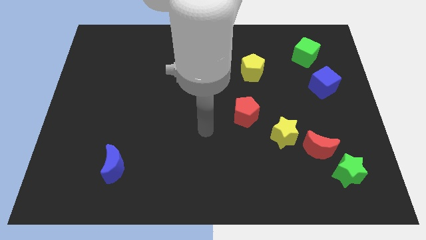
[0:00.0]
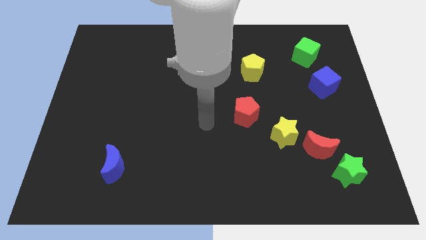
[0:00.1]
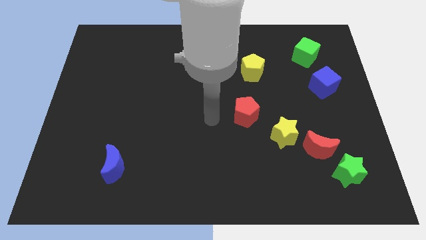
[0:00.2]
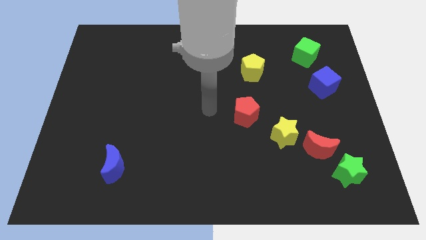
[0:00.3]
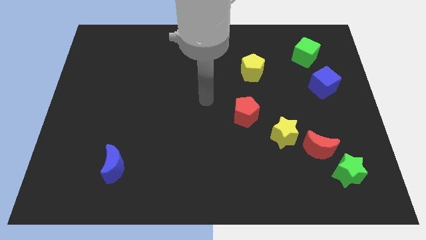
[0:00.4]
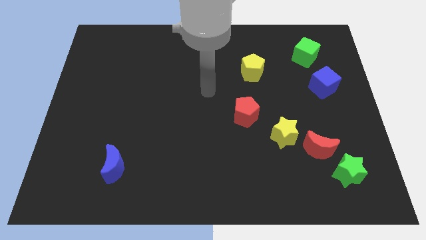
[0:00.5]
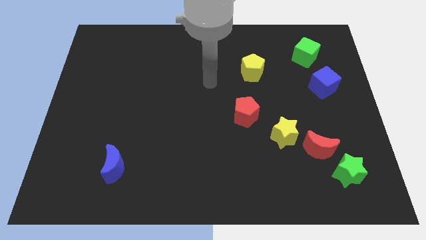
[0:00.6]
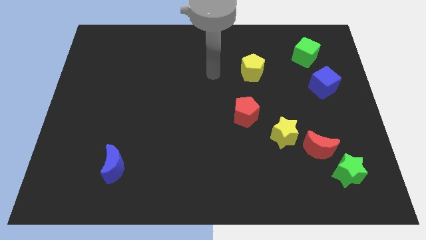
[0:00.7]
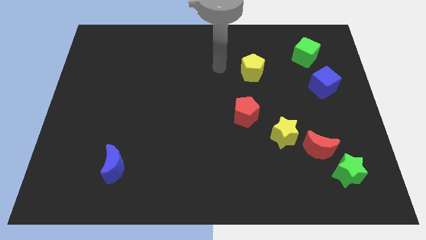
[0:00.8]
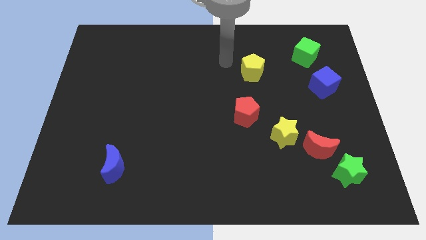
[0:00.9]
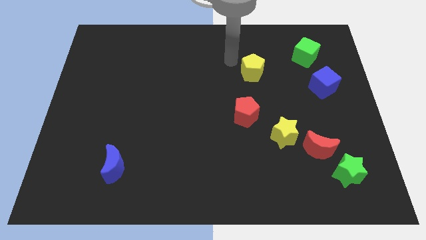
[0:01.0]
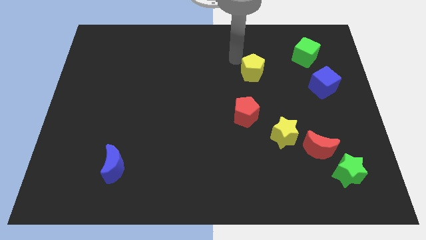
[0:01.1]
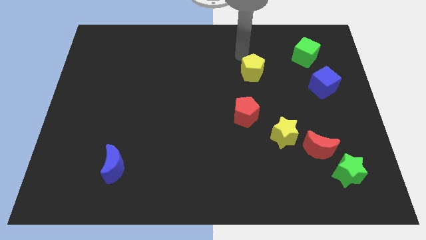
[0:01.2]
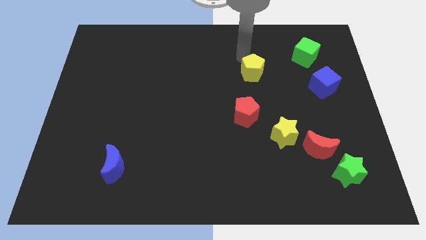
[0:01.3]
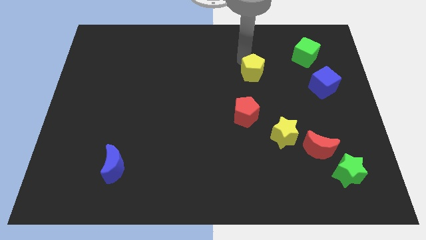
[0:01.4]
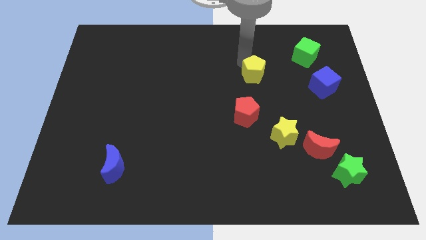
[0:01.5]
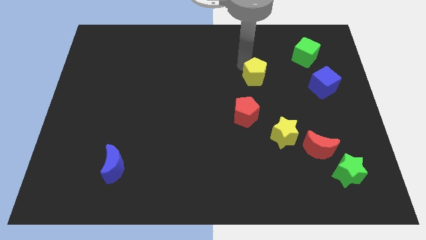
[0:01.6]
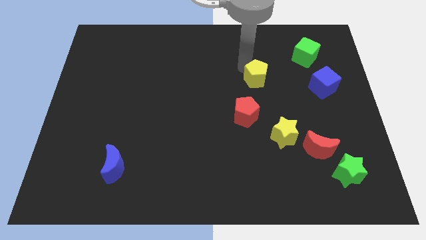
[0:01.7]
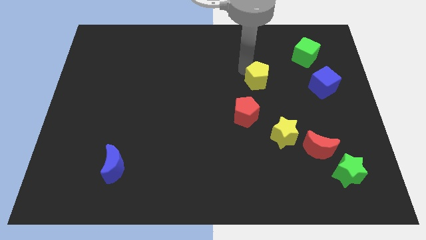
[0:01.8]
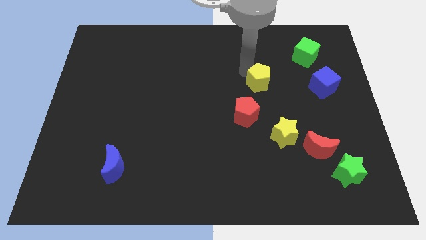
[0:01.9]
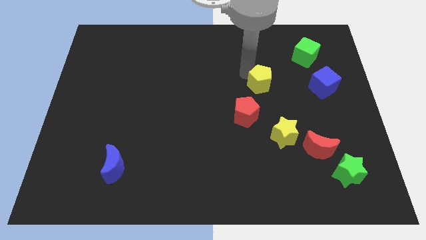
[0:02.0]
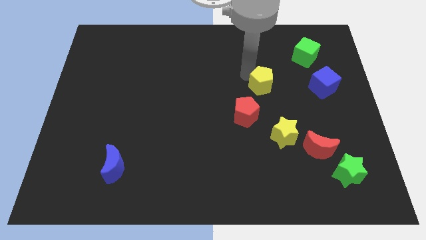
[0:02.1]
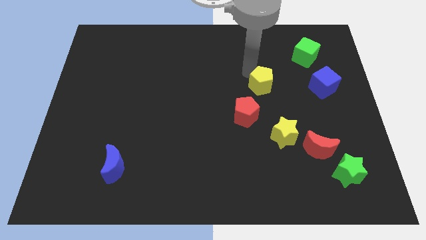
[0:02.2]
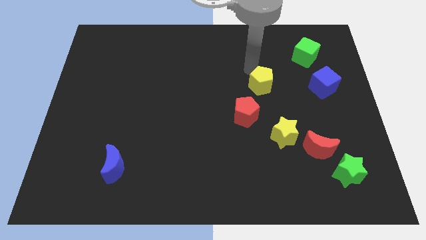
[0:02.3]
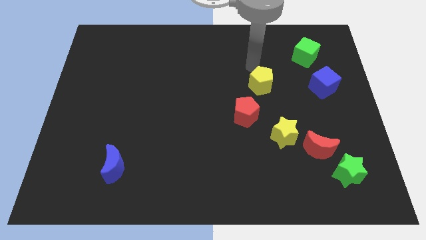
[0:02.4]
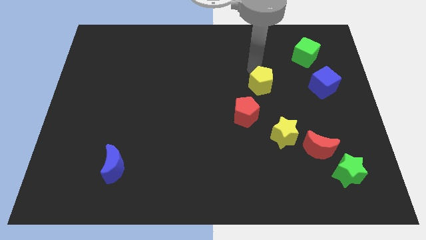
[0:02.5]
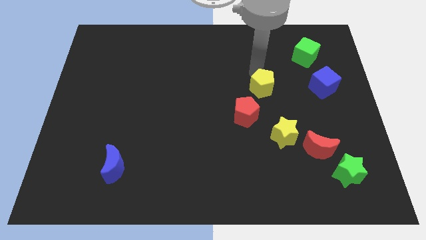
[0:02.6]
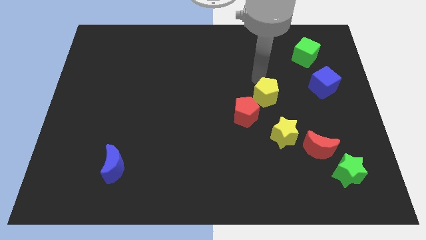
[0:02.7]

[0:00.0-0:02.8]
slide the yellow pentagon down slightly

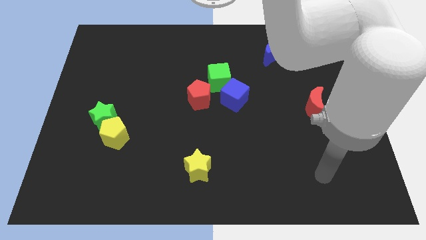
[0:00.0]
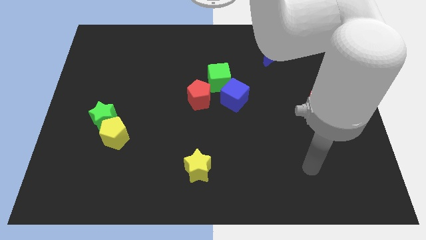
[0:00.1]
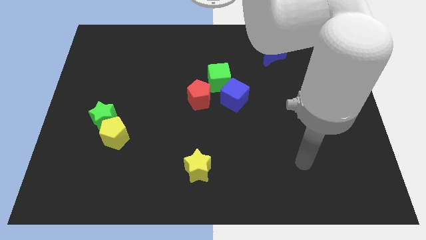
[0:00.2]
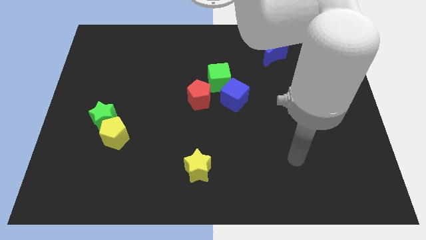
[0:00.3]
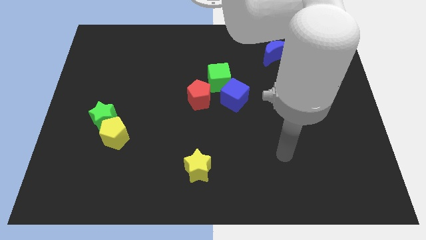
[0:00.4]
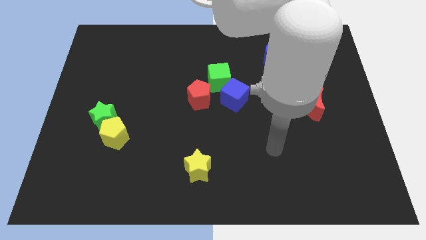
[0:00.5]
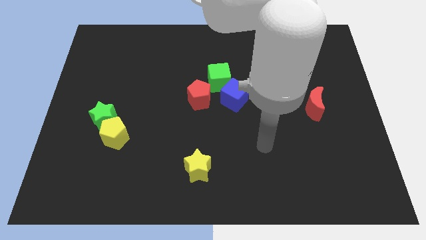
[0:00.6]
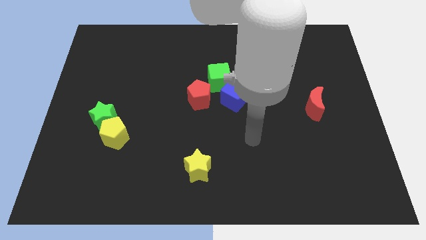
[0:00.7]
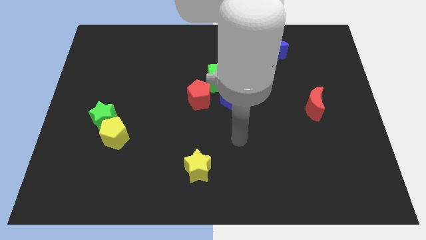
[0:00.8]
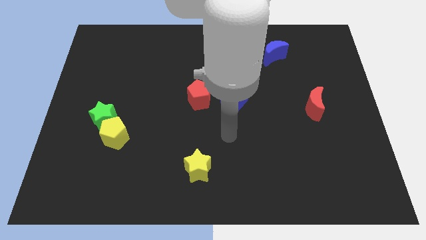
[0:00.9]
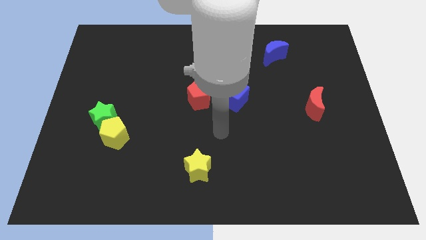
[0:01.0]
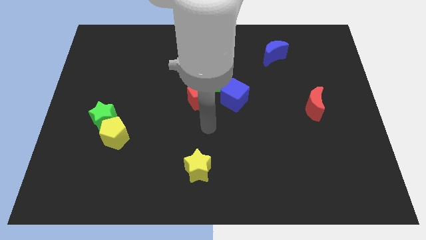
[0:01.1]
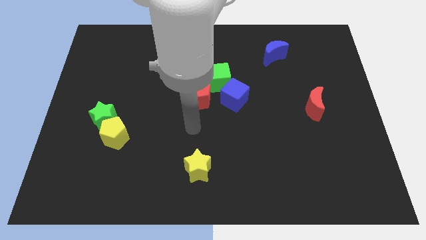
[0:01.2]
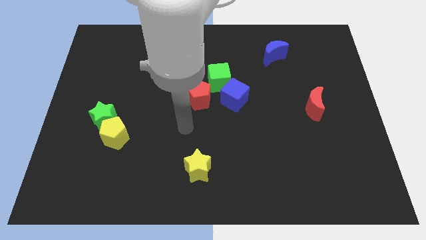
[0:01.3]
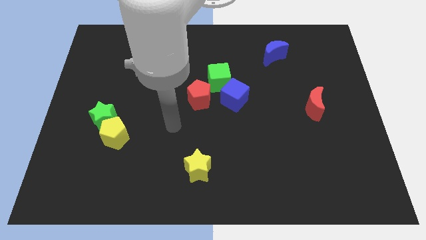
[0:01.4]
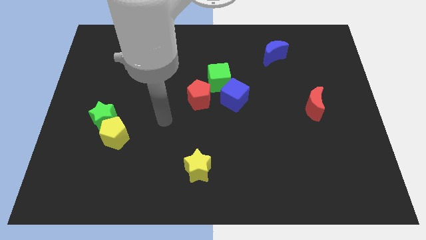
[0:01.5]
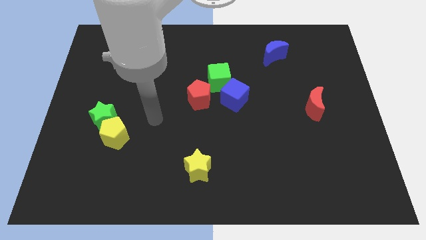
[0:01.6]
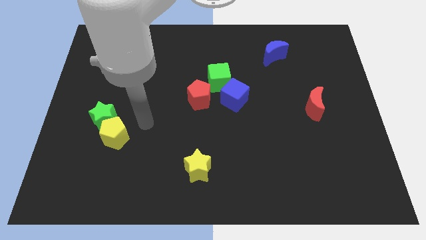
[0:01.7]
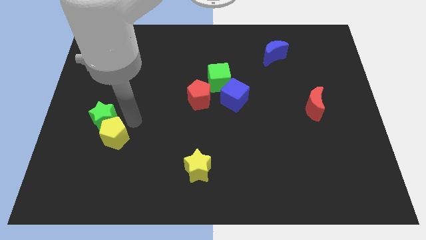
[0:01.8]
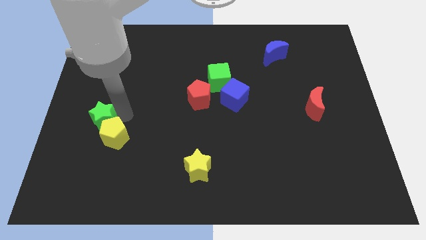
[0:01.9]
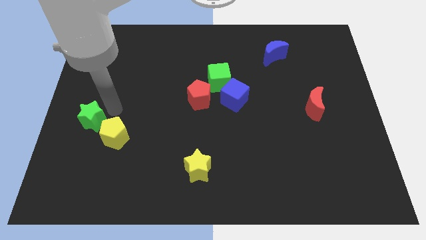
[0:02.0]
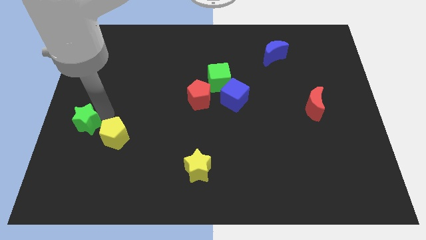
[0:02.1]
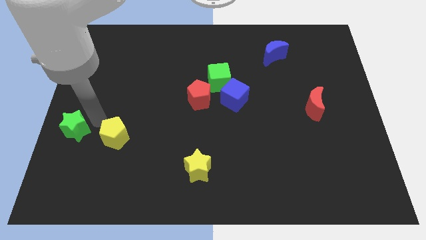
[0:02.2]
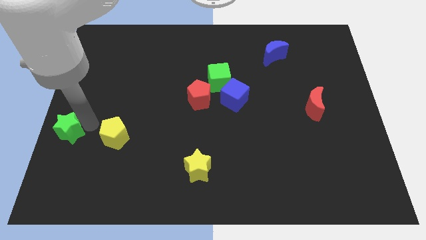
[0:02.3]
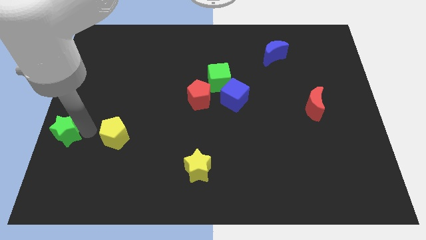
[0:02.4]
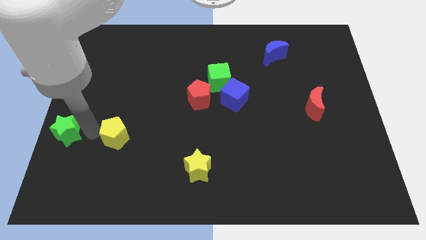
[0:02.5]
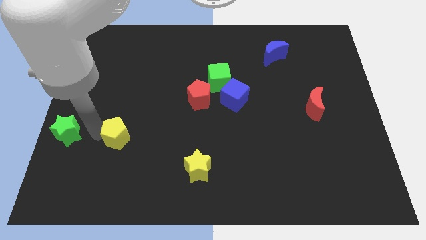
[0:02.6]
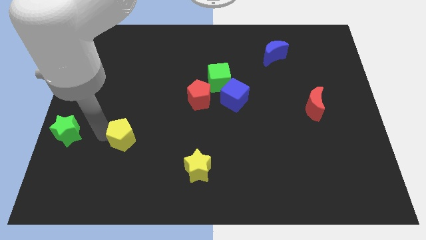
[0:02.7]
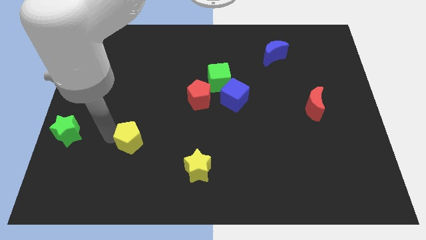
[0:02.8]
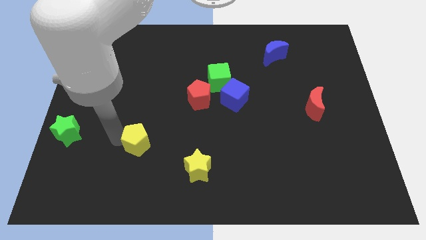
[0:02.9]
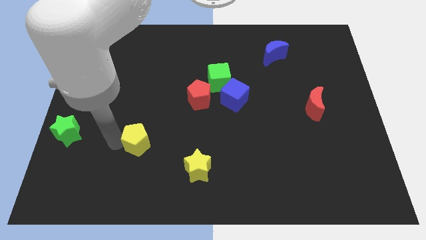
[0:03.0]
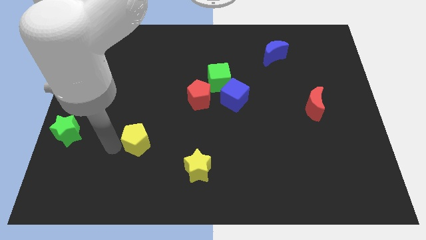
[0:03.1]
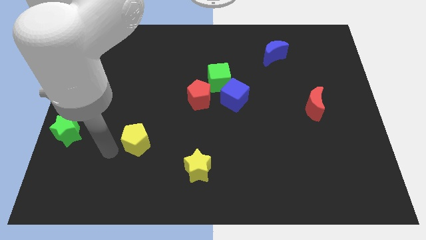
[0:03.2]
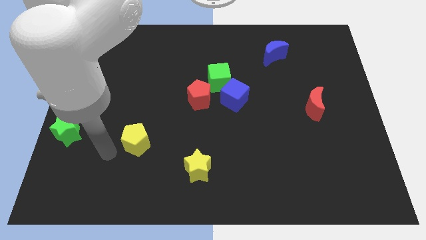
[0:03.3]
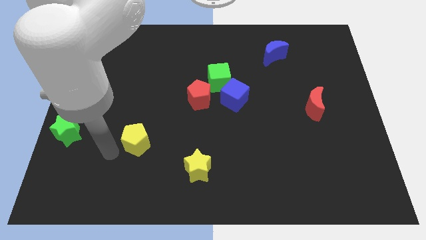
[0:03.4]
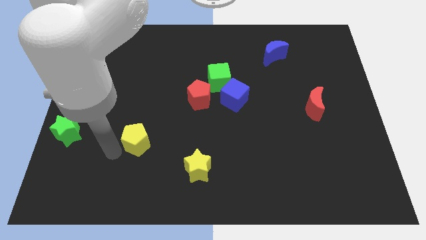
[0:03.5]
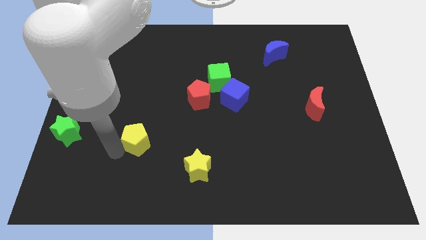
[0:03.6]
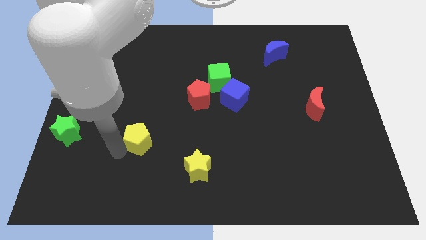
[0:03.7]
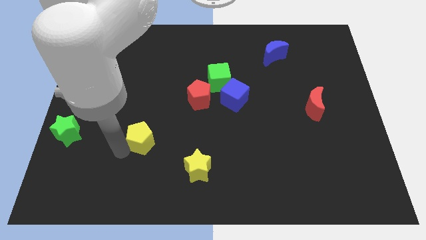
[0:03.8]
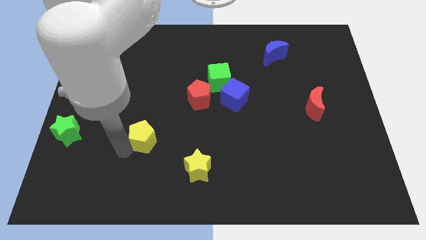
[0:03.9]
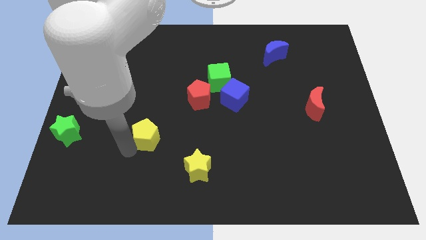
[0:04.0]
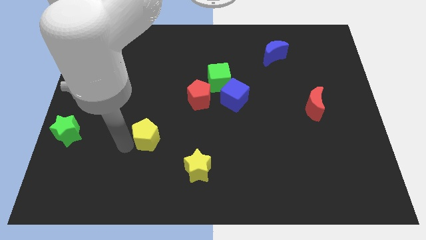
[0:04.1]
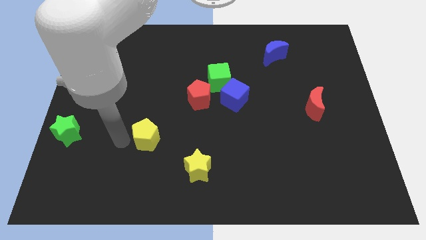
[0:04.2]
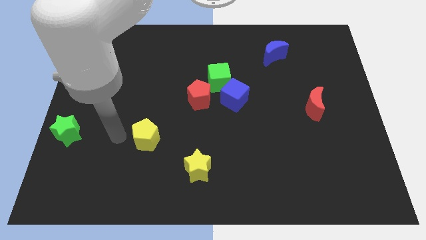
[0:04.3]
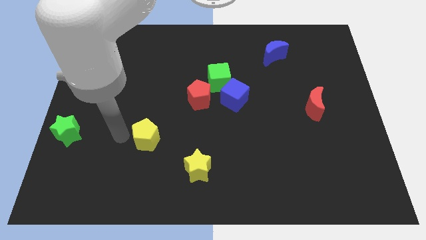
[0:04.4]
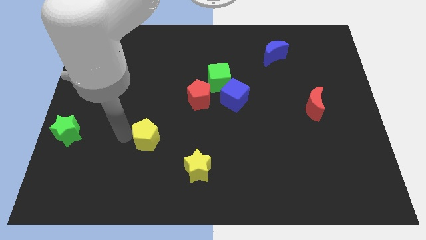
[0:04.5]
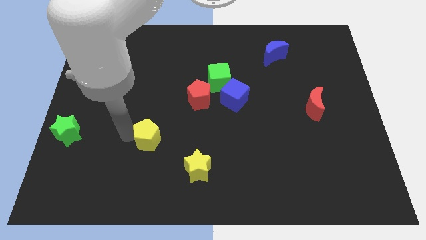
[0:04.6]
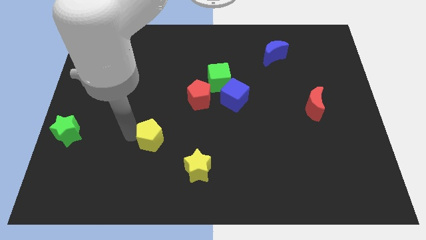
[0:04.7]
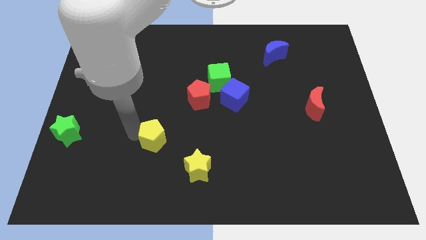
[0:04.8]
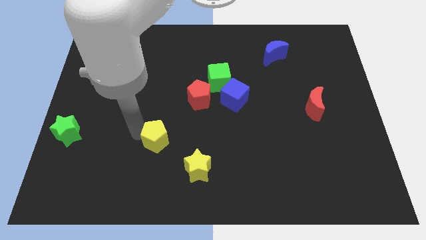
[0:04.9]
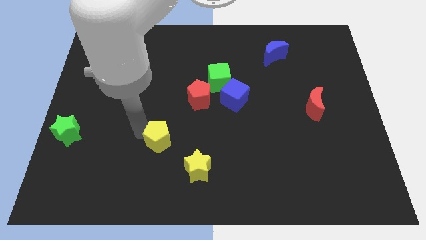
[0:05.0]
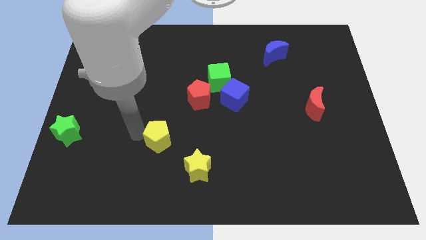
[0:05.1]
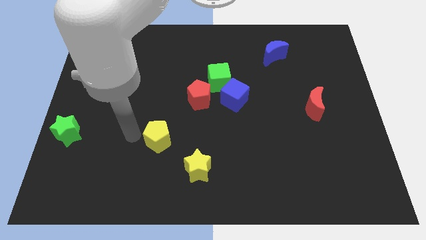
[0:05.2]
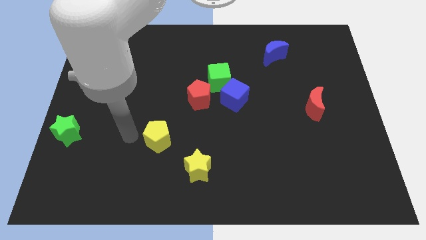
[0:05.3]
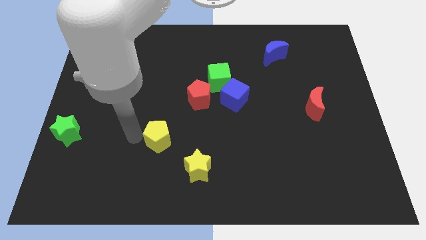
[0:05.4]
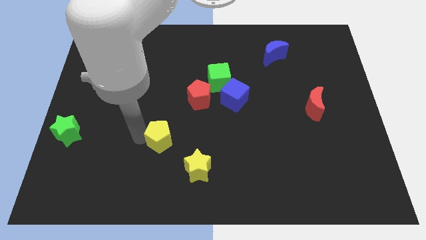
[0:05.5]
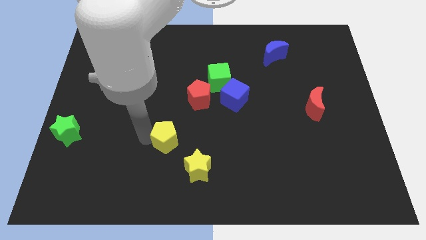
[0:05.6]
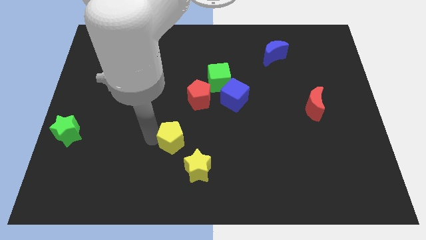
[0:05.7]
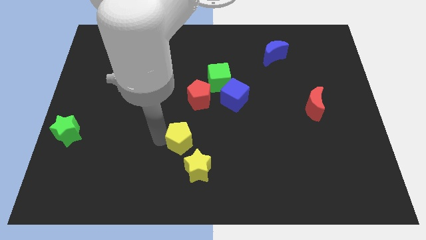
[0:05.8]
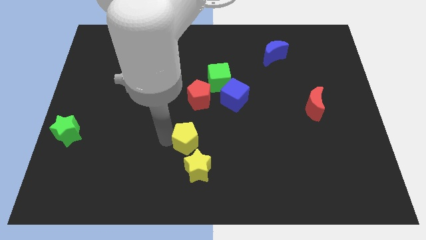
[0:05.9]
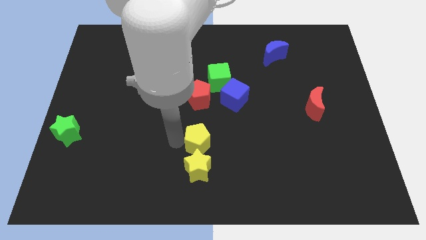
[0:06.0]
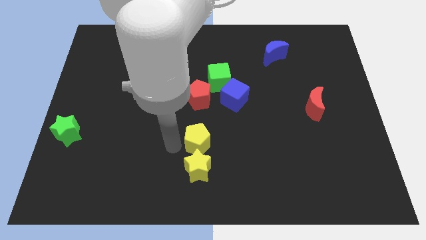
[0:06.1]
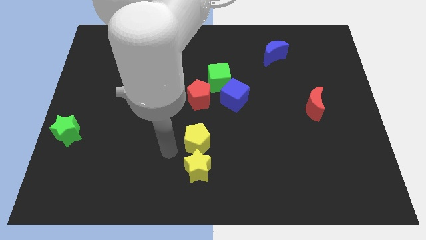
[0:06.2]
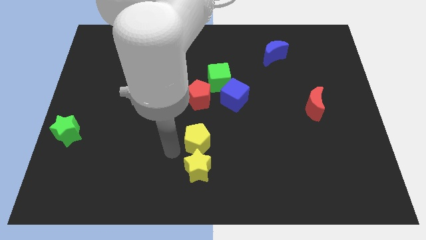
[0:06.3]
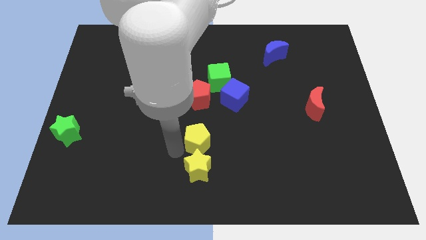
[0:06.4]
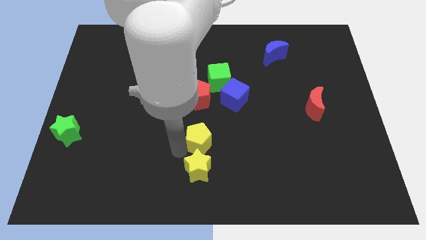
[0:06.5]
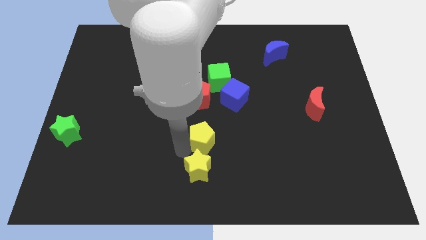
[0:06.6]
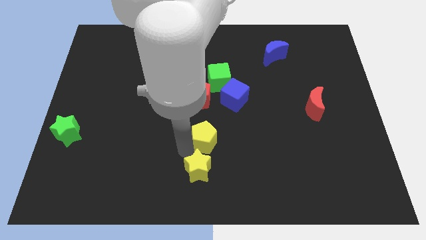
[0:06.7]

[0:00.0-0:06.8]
move the yellow pentagon to the right
